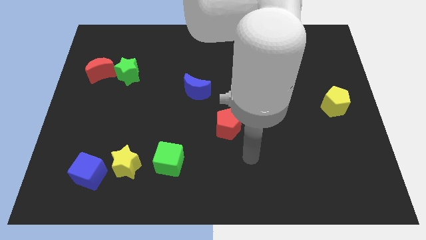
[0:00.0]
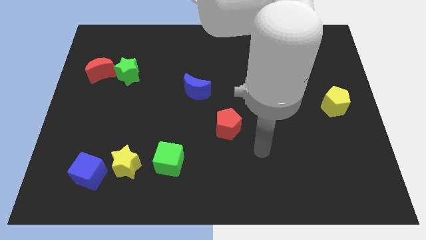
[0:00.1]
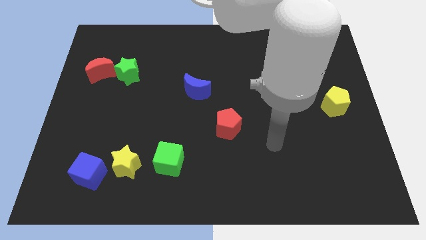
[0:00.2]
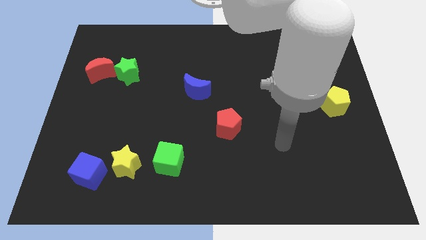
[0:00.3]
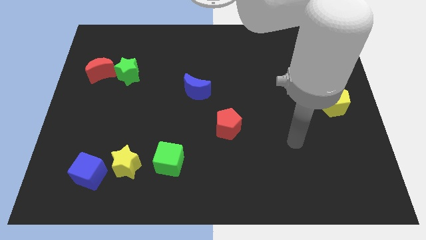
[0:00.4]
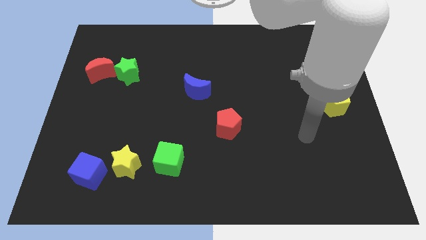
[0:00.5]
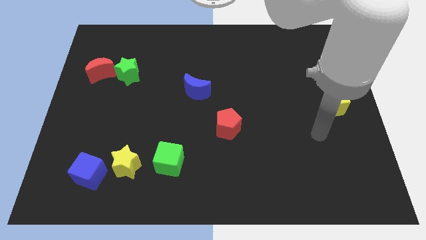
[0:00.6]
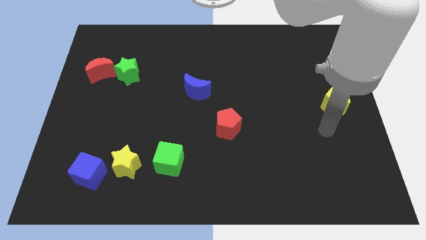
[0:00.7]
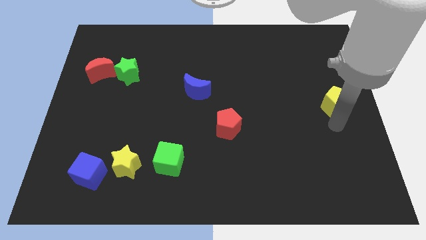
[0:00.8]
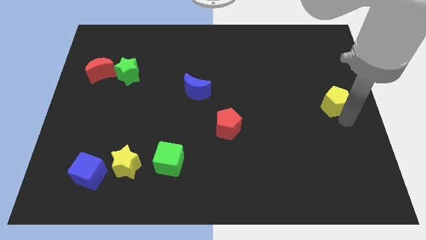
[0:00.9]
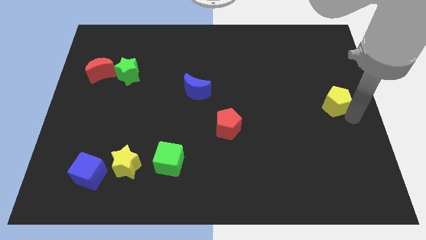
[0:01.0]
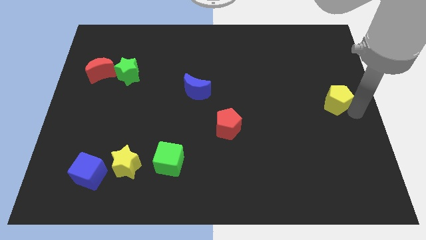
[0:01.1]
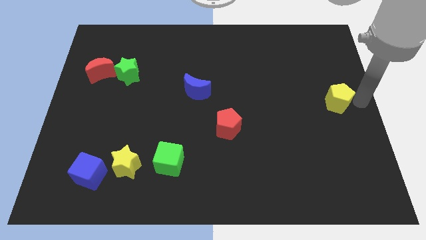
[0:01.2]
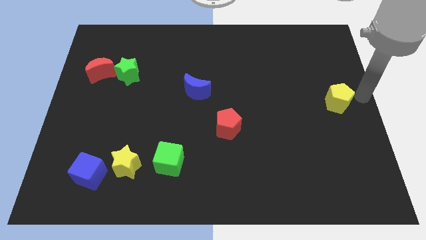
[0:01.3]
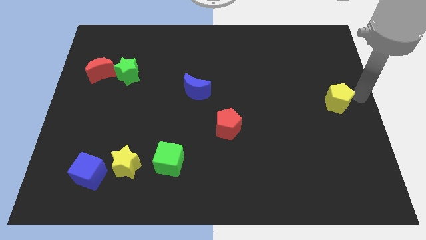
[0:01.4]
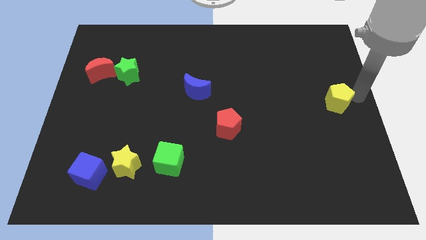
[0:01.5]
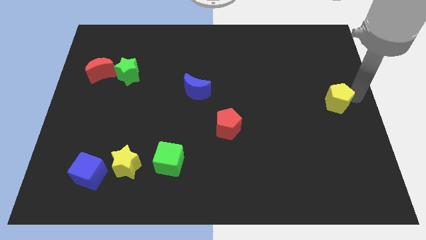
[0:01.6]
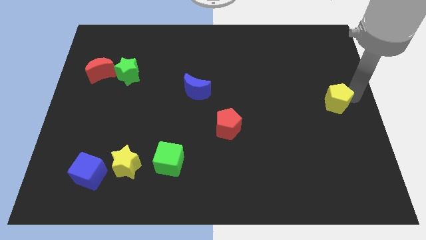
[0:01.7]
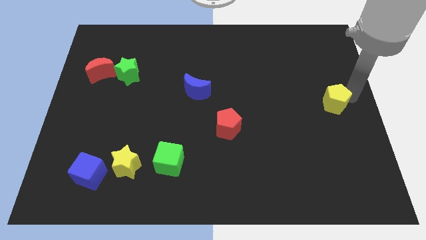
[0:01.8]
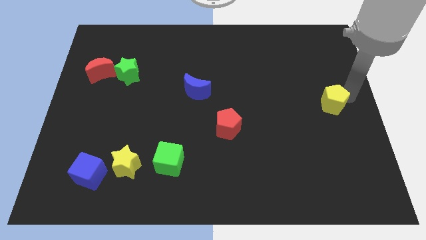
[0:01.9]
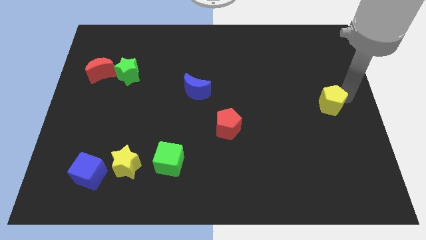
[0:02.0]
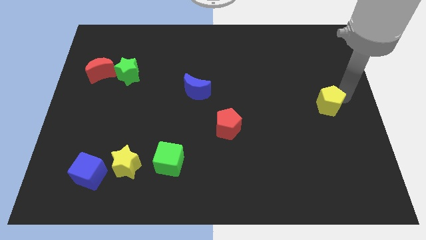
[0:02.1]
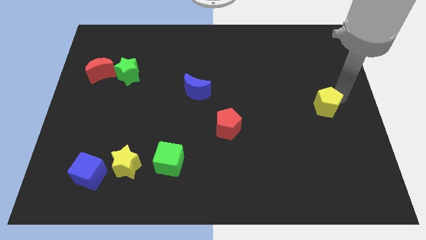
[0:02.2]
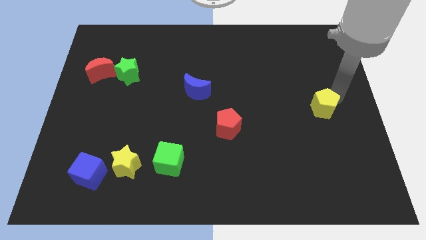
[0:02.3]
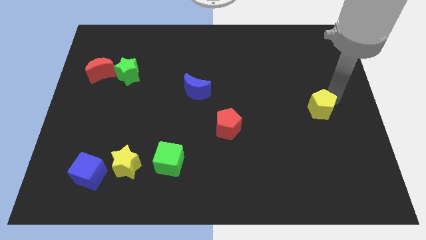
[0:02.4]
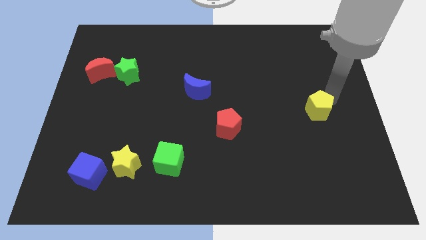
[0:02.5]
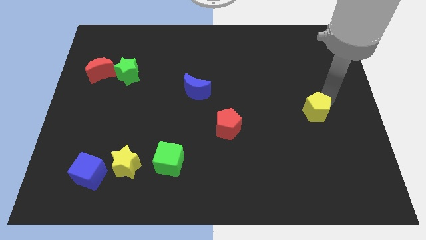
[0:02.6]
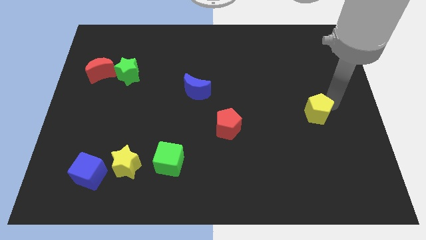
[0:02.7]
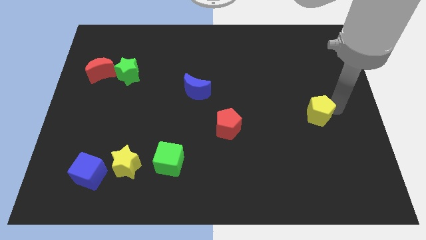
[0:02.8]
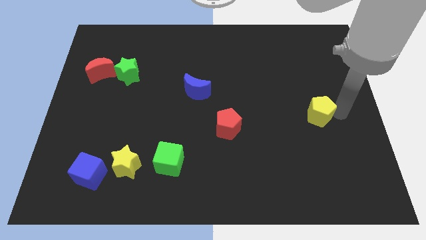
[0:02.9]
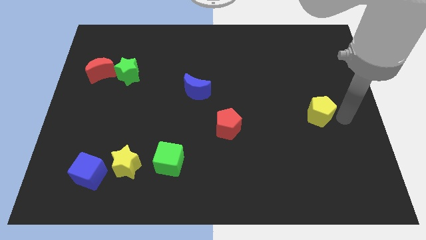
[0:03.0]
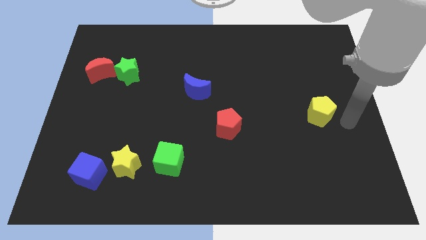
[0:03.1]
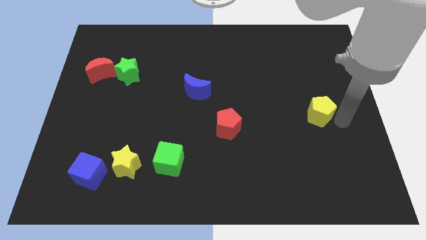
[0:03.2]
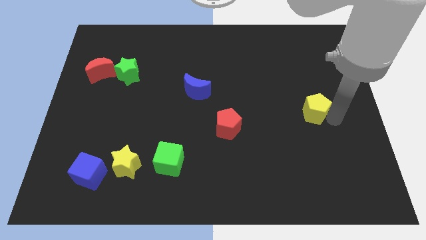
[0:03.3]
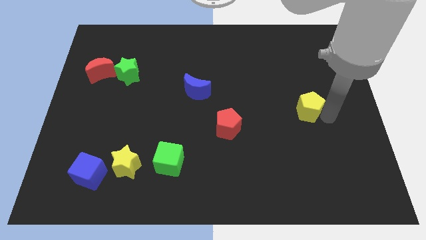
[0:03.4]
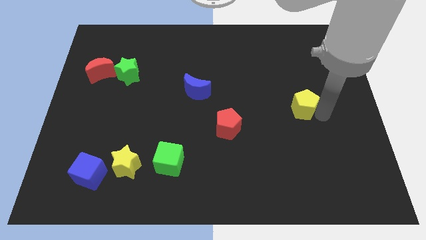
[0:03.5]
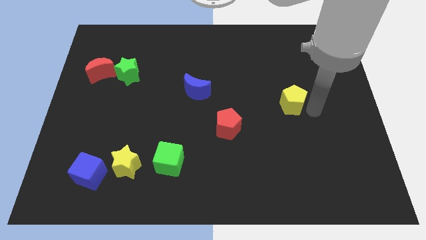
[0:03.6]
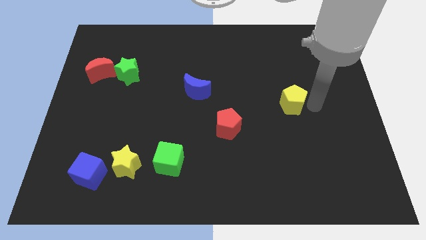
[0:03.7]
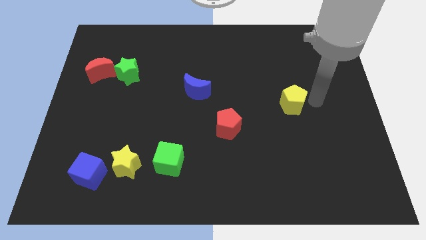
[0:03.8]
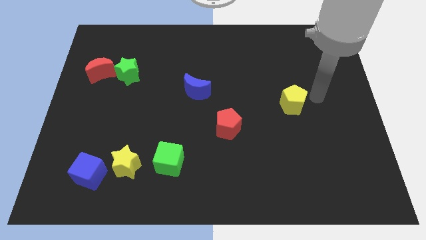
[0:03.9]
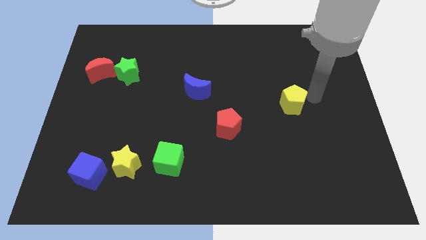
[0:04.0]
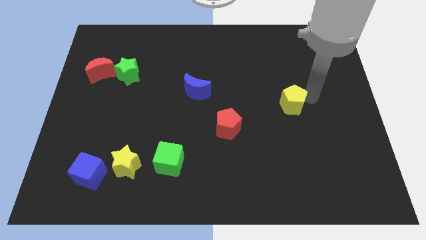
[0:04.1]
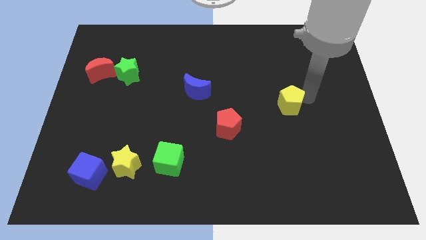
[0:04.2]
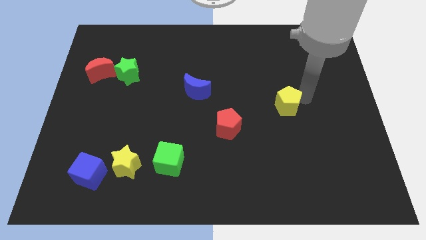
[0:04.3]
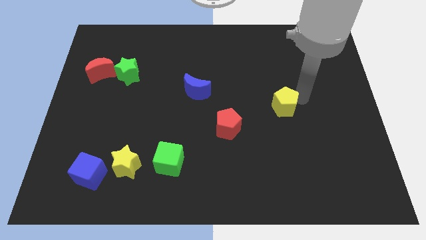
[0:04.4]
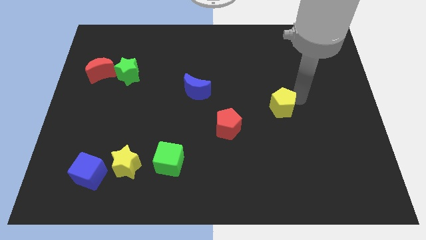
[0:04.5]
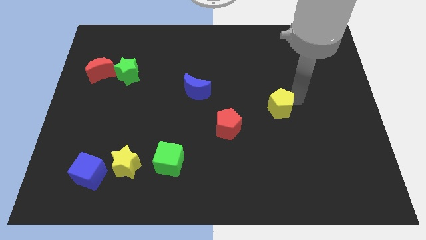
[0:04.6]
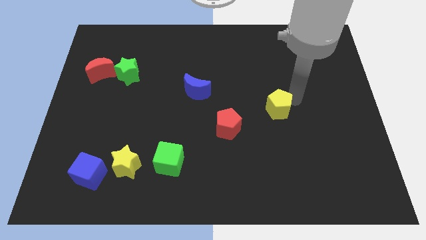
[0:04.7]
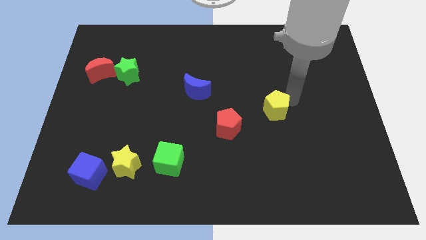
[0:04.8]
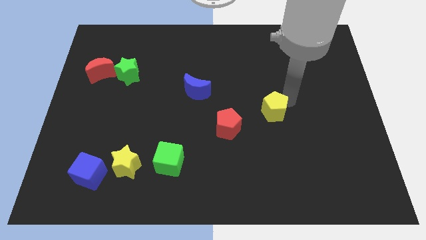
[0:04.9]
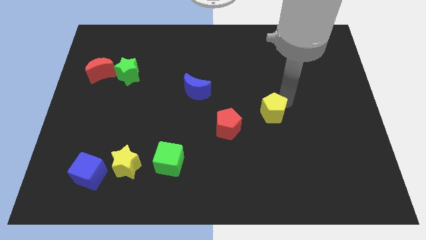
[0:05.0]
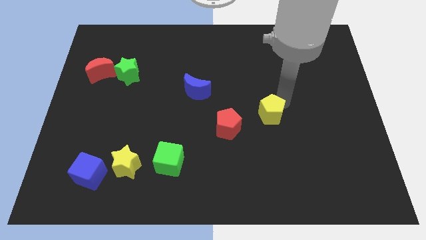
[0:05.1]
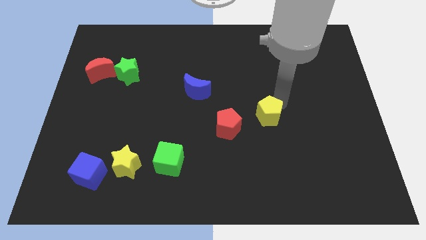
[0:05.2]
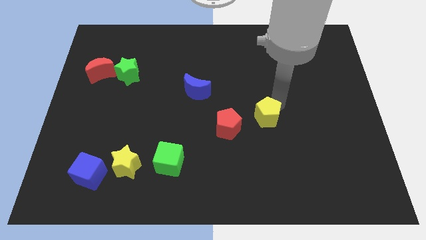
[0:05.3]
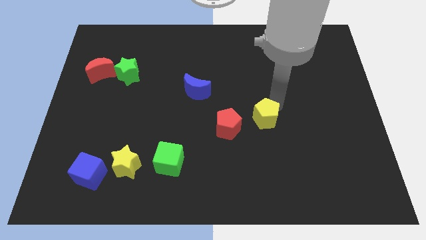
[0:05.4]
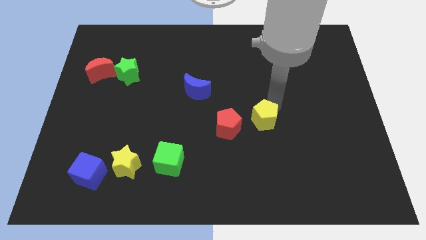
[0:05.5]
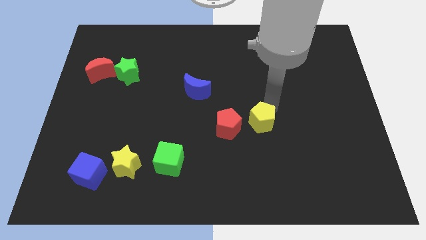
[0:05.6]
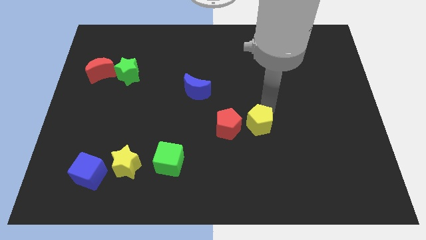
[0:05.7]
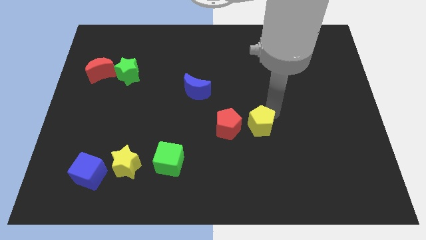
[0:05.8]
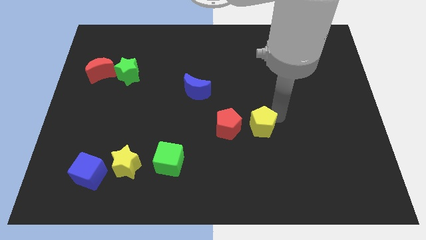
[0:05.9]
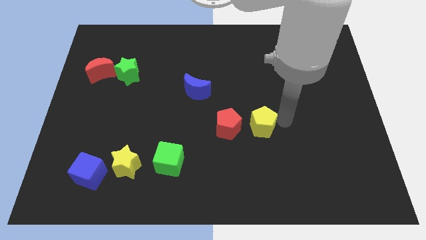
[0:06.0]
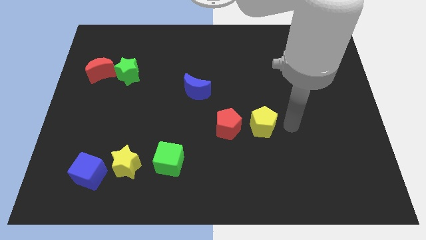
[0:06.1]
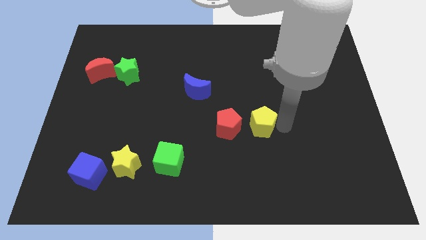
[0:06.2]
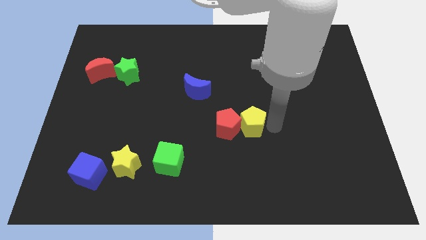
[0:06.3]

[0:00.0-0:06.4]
push the yellow pentagon next to the red pentagon

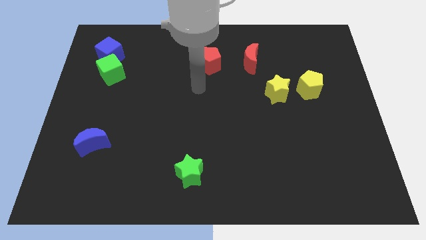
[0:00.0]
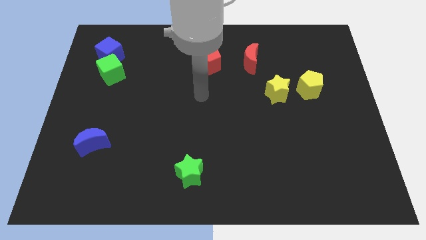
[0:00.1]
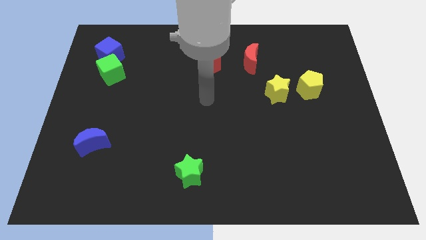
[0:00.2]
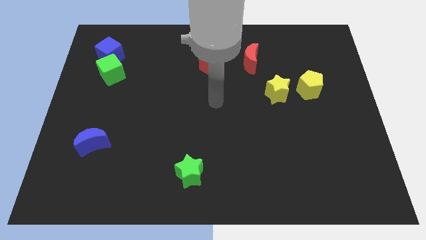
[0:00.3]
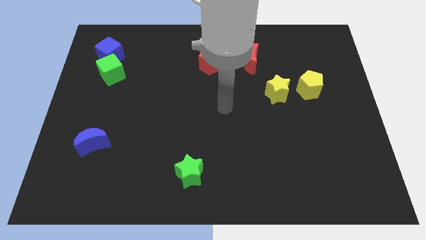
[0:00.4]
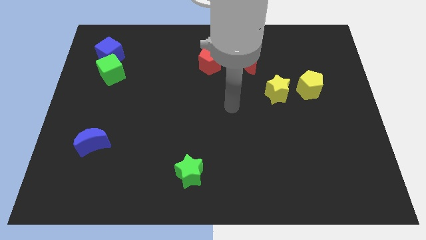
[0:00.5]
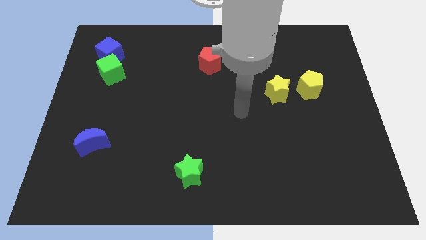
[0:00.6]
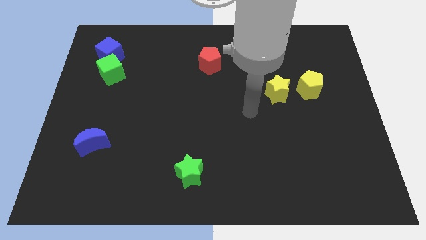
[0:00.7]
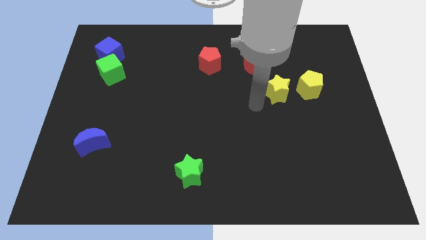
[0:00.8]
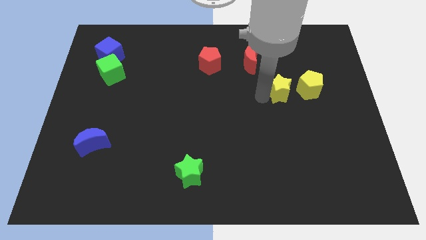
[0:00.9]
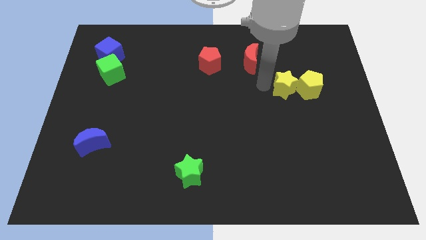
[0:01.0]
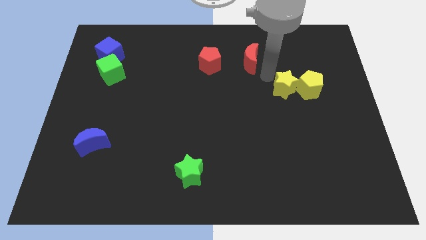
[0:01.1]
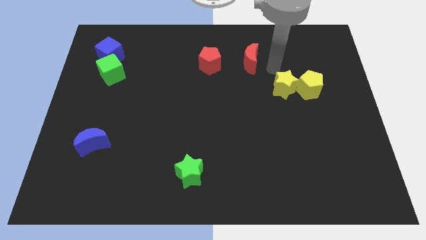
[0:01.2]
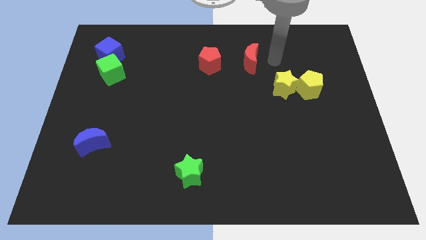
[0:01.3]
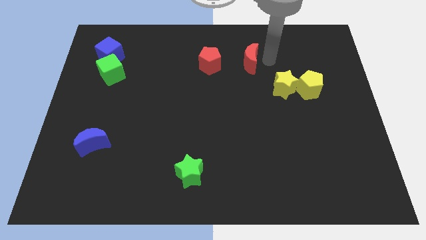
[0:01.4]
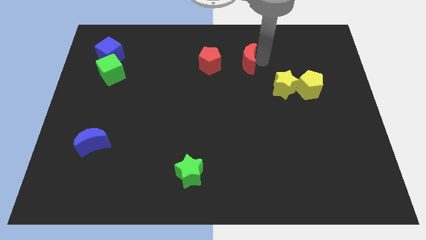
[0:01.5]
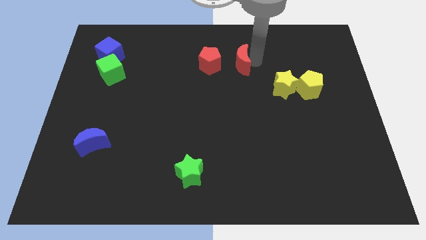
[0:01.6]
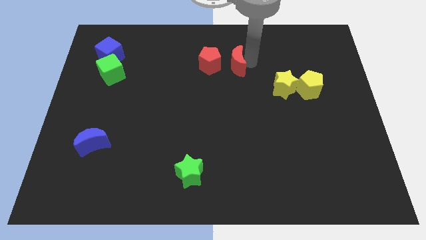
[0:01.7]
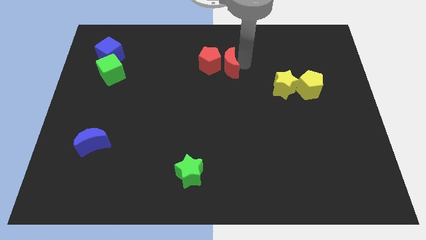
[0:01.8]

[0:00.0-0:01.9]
move the red moon next to the red pentagon
